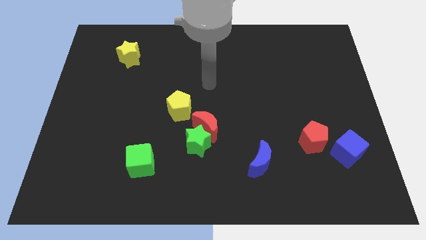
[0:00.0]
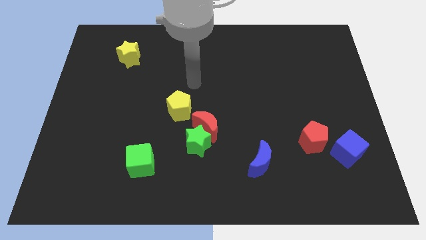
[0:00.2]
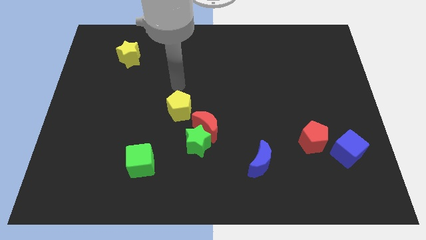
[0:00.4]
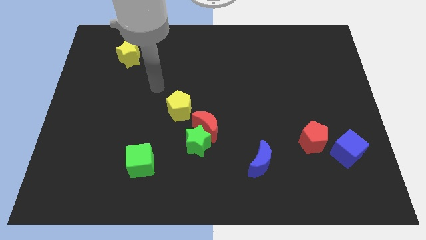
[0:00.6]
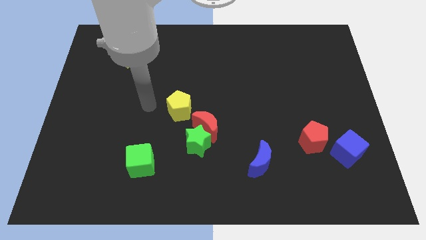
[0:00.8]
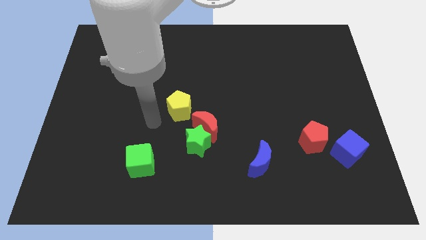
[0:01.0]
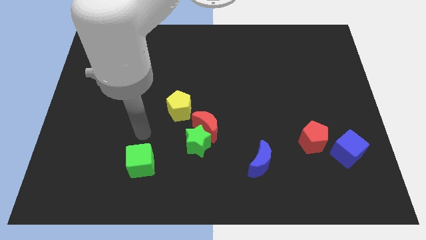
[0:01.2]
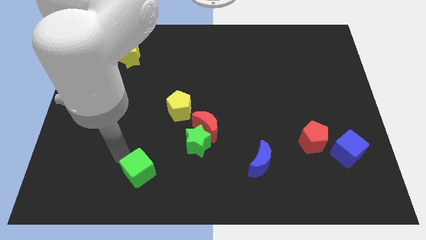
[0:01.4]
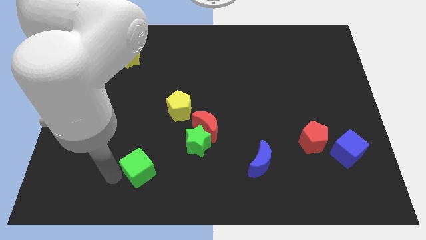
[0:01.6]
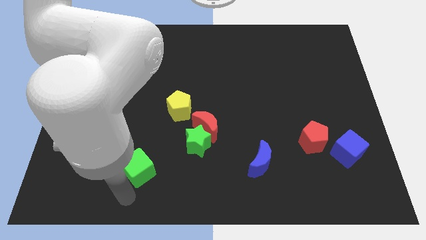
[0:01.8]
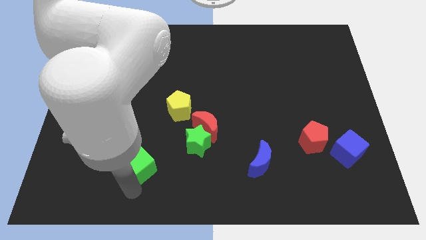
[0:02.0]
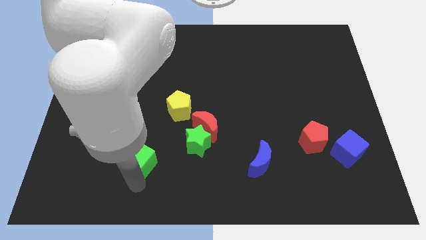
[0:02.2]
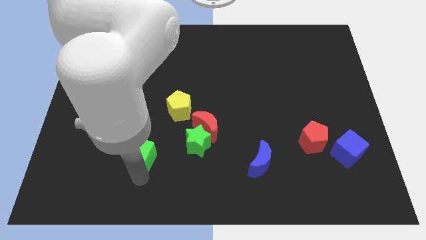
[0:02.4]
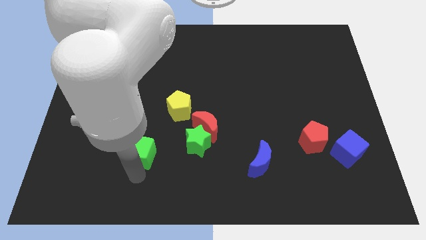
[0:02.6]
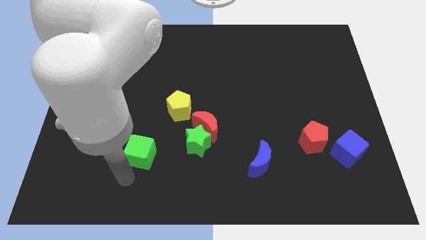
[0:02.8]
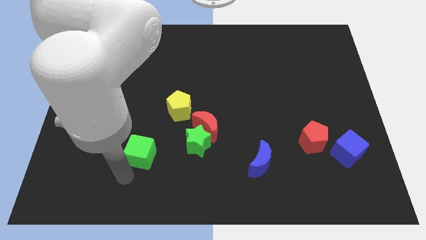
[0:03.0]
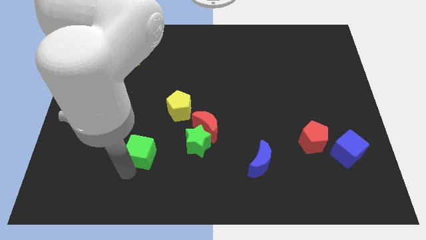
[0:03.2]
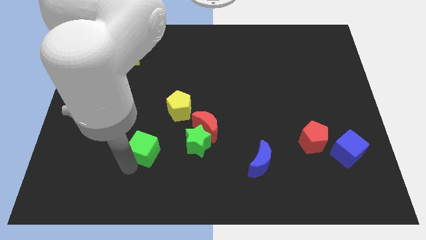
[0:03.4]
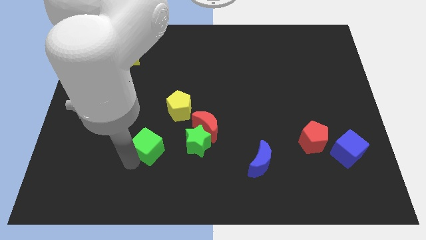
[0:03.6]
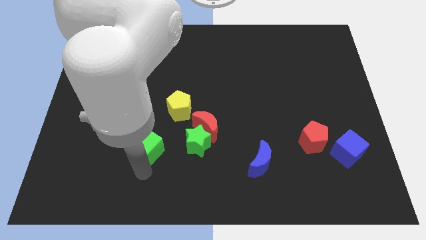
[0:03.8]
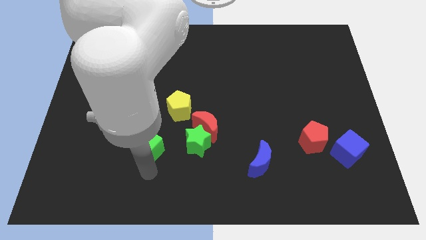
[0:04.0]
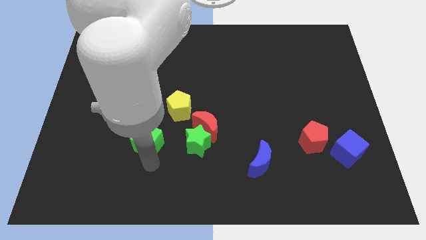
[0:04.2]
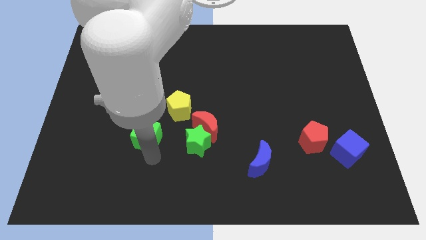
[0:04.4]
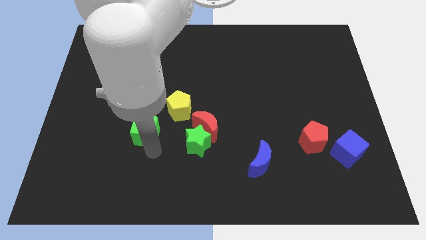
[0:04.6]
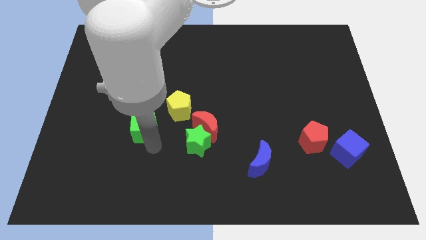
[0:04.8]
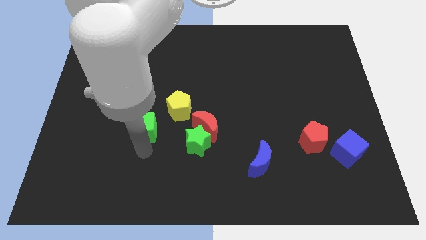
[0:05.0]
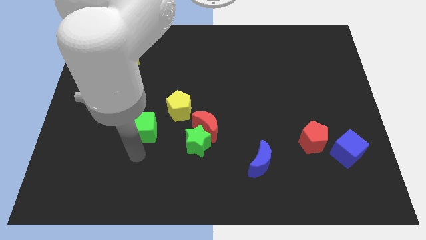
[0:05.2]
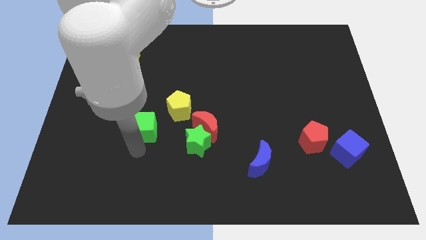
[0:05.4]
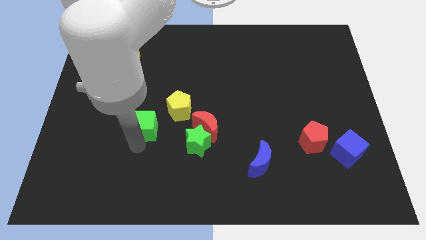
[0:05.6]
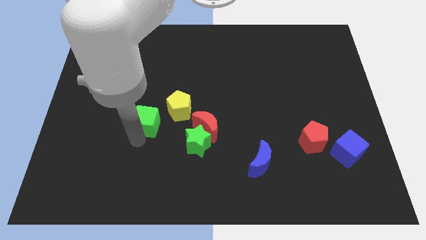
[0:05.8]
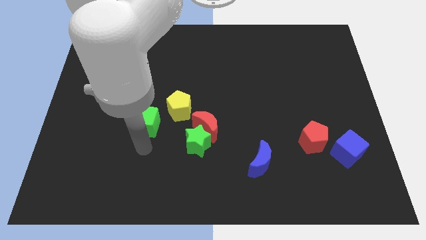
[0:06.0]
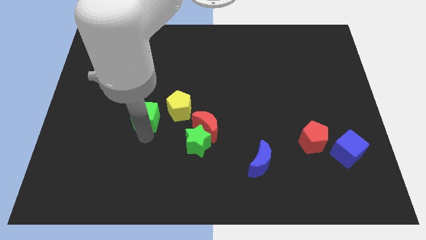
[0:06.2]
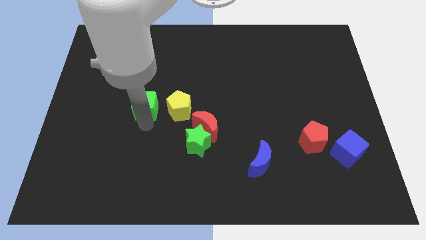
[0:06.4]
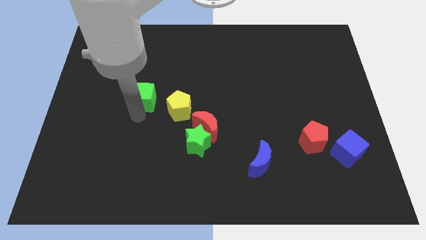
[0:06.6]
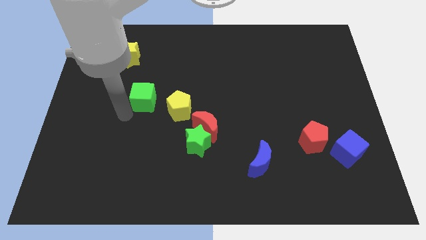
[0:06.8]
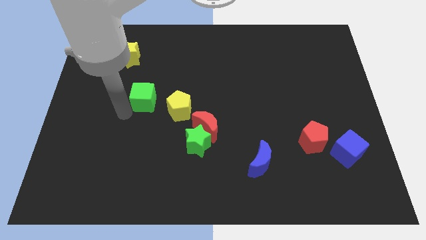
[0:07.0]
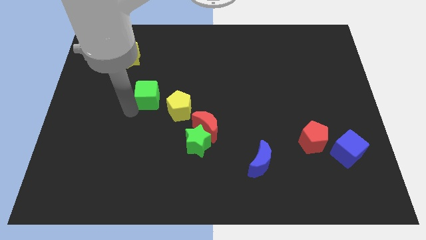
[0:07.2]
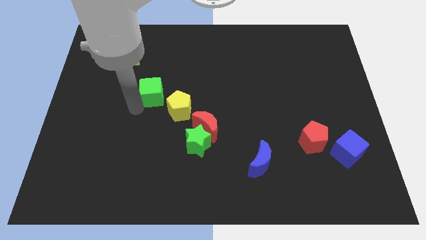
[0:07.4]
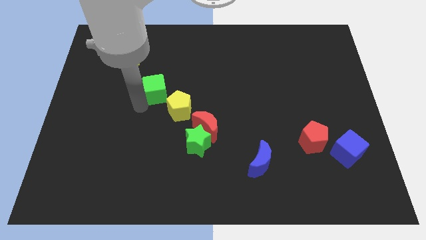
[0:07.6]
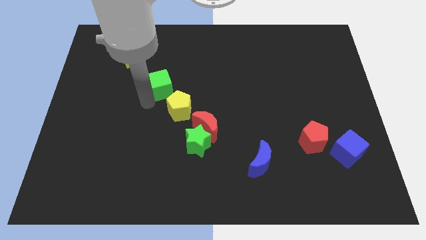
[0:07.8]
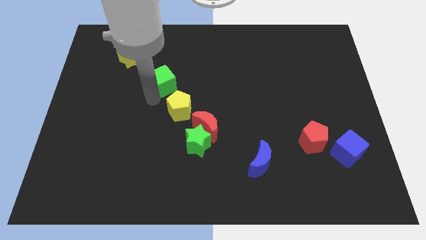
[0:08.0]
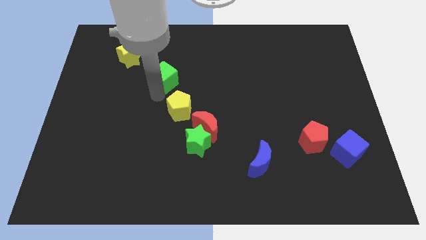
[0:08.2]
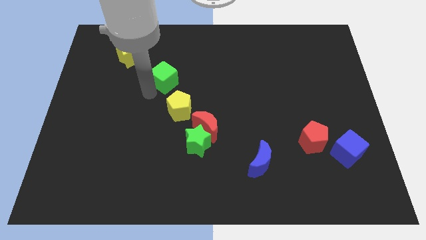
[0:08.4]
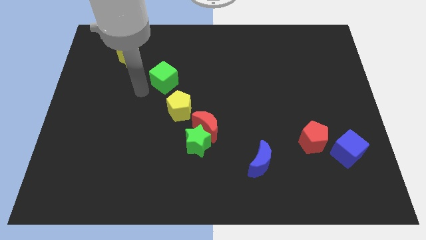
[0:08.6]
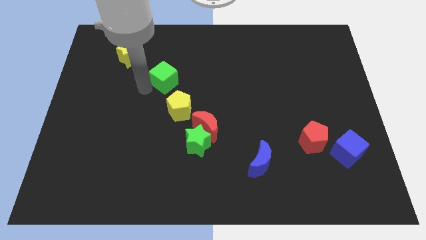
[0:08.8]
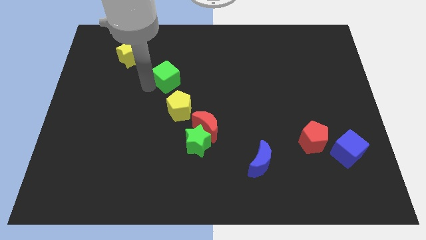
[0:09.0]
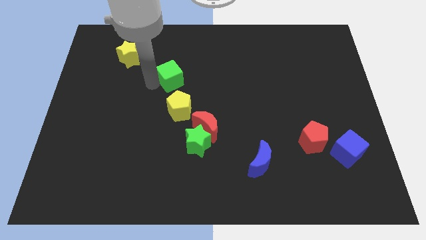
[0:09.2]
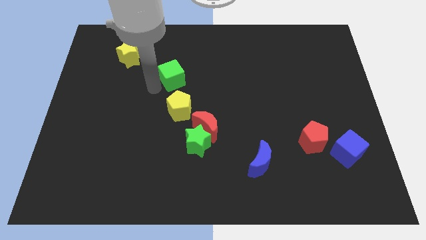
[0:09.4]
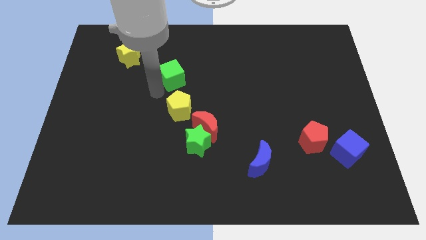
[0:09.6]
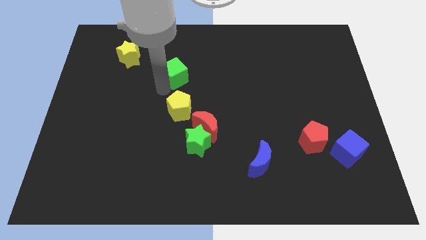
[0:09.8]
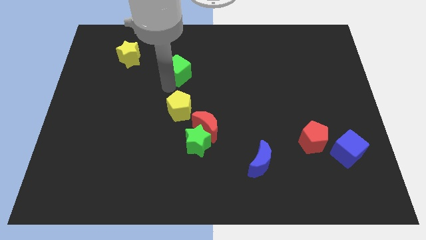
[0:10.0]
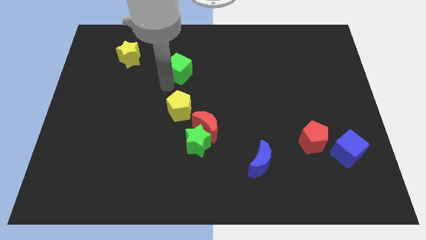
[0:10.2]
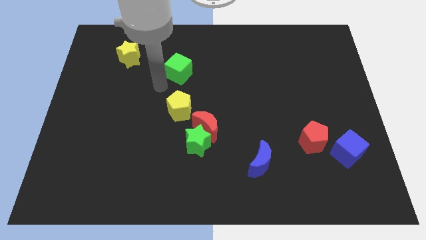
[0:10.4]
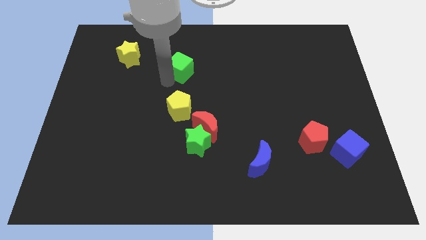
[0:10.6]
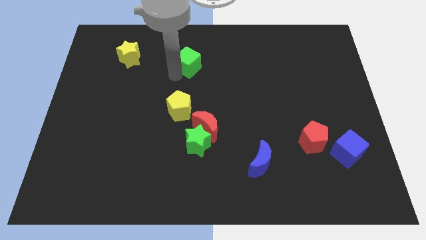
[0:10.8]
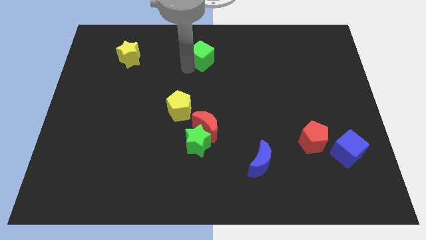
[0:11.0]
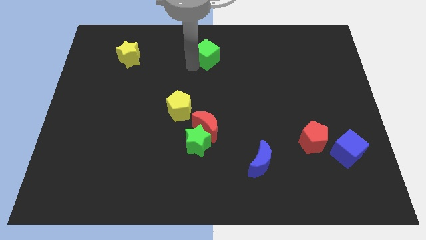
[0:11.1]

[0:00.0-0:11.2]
slide the green cube to the top side
